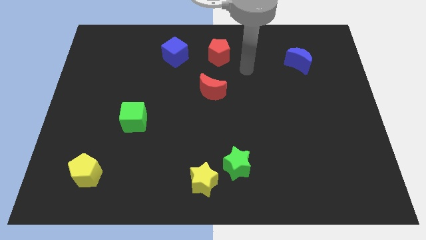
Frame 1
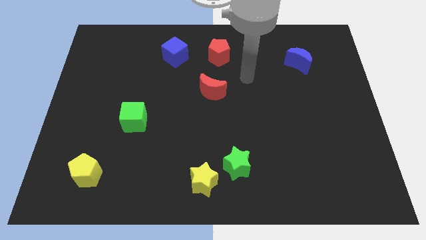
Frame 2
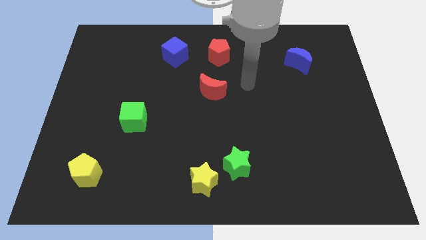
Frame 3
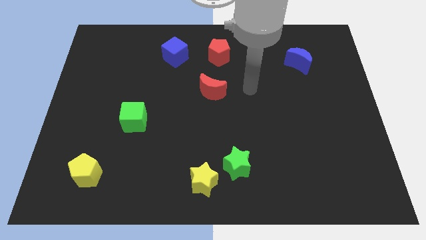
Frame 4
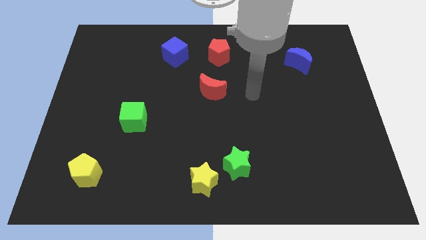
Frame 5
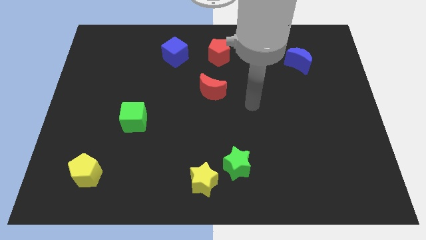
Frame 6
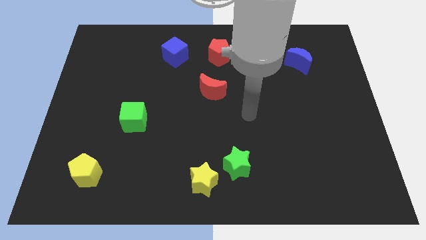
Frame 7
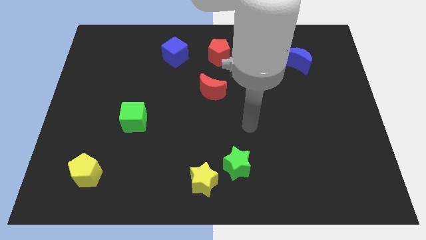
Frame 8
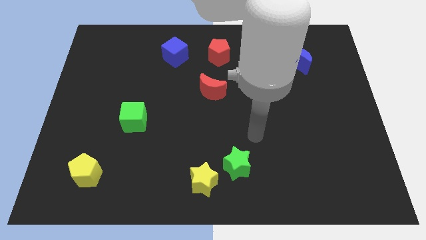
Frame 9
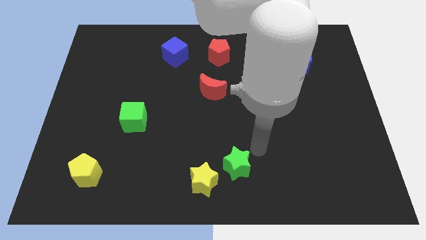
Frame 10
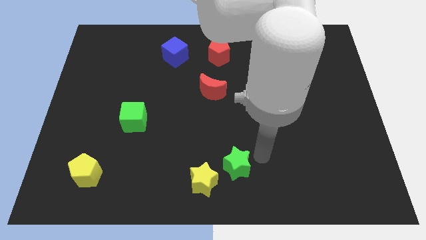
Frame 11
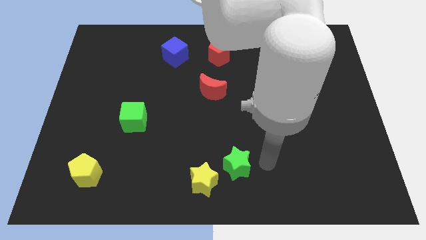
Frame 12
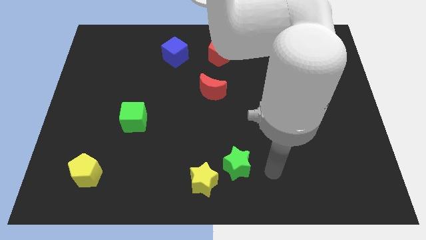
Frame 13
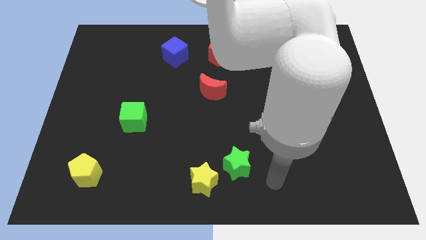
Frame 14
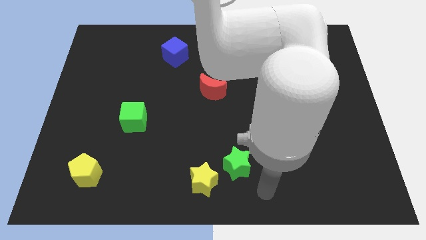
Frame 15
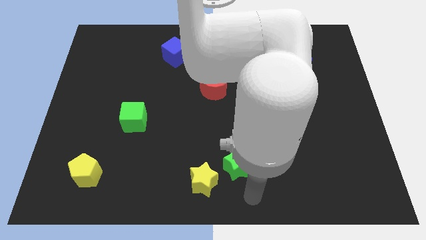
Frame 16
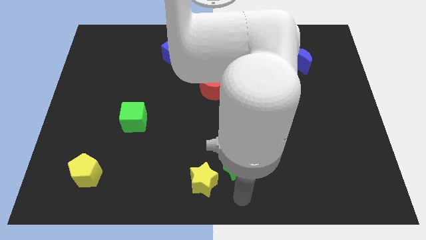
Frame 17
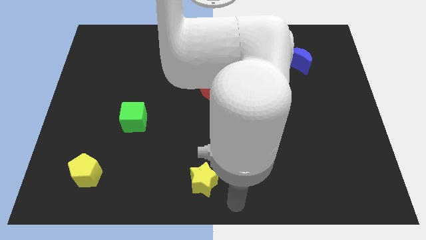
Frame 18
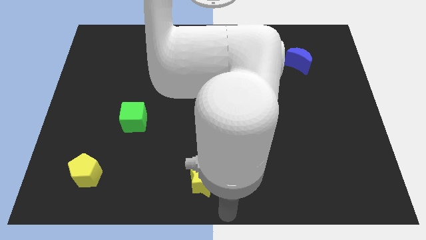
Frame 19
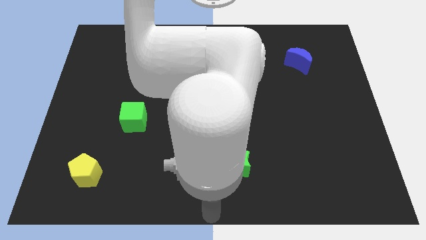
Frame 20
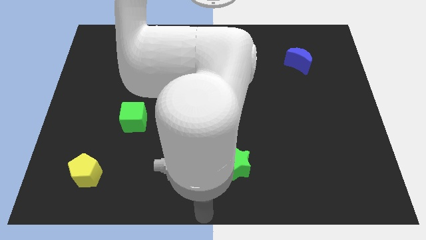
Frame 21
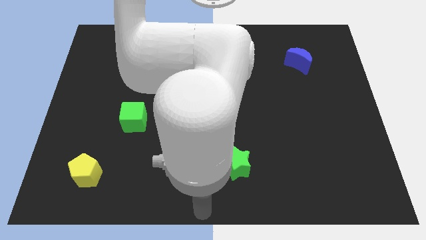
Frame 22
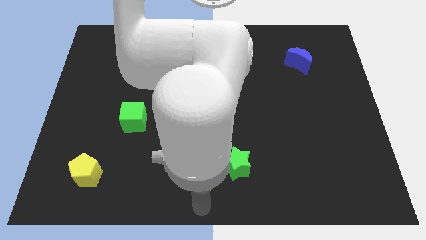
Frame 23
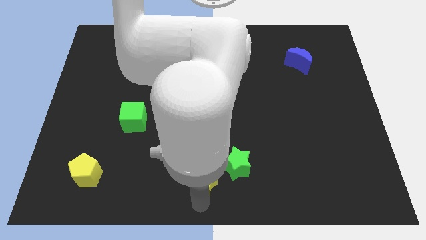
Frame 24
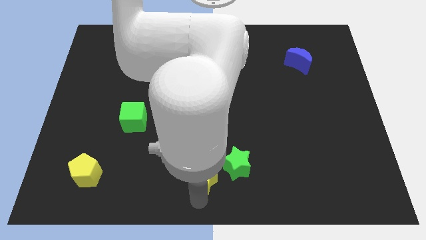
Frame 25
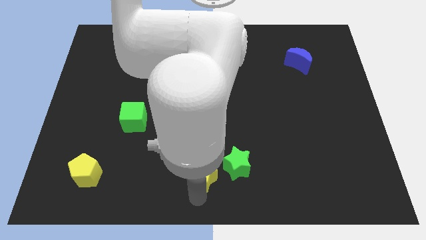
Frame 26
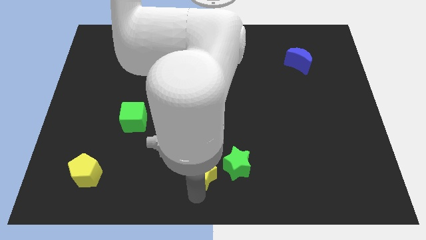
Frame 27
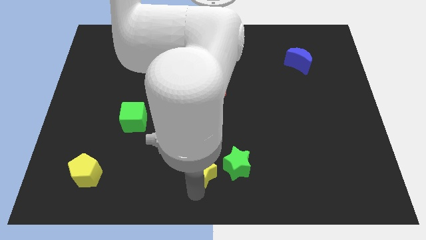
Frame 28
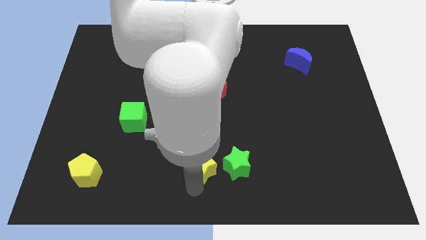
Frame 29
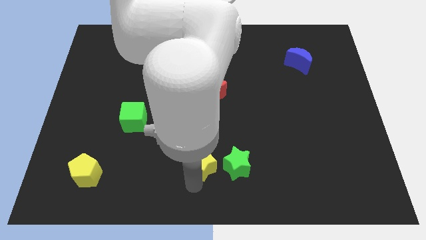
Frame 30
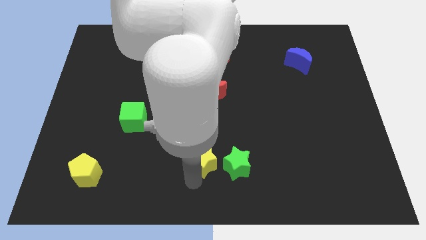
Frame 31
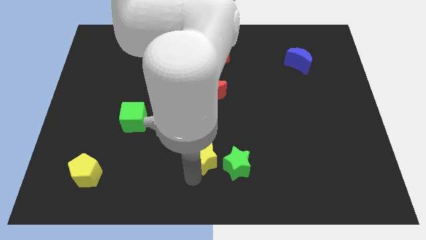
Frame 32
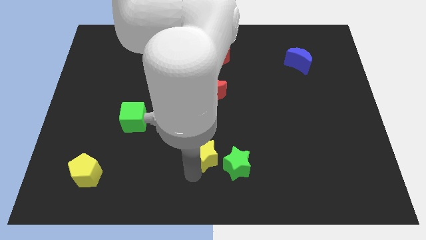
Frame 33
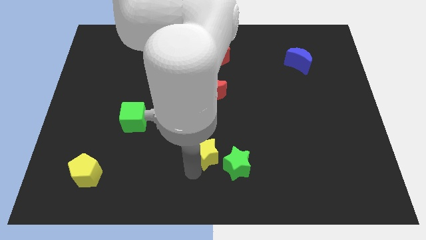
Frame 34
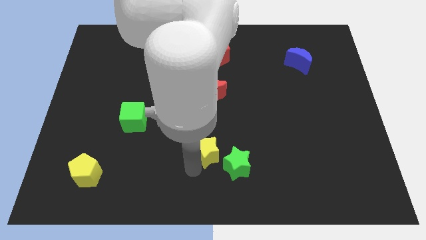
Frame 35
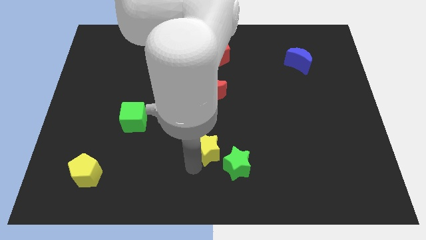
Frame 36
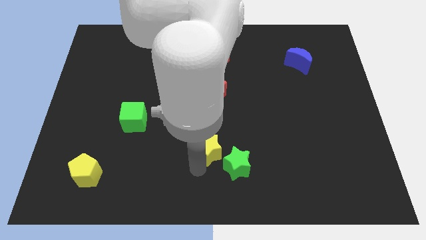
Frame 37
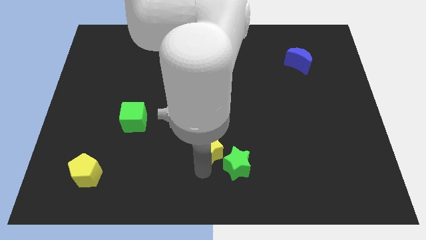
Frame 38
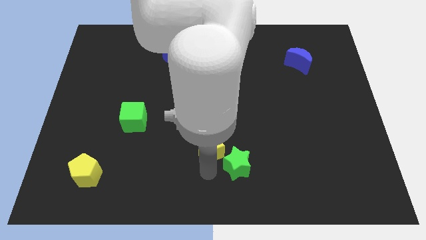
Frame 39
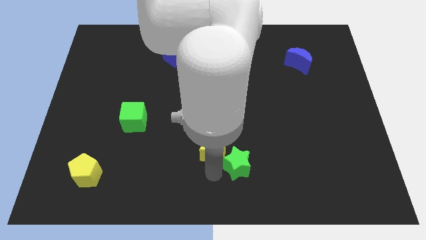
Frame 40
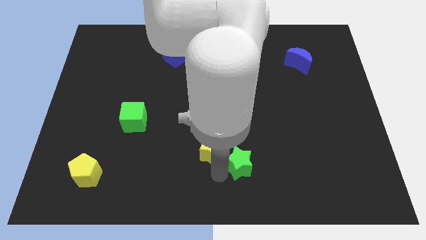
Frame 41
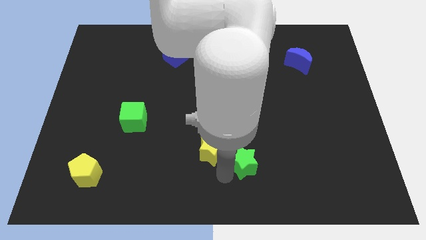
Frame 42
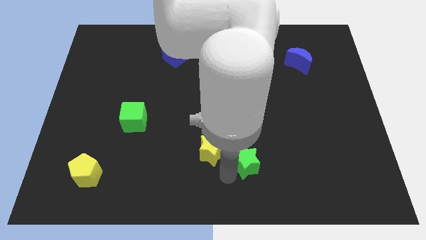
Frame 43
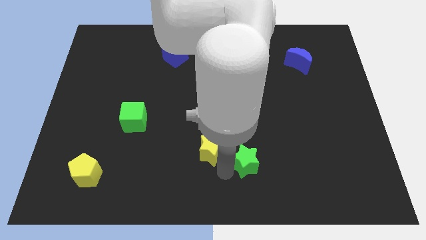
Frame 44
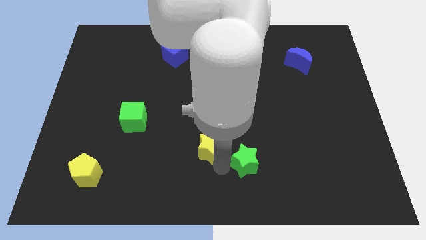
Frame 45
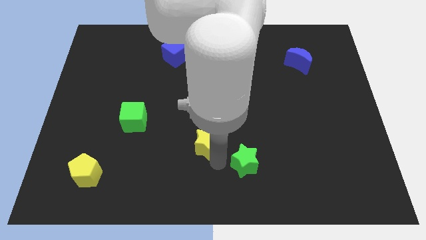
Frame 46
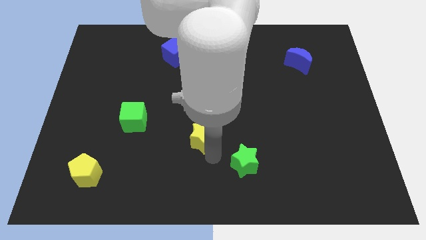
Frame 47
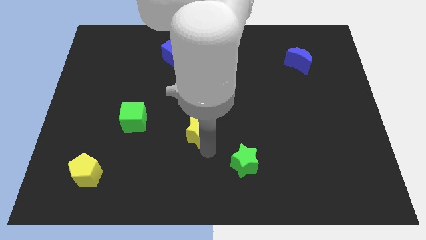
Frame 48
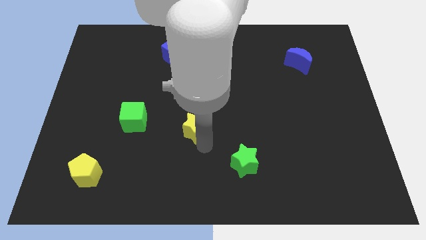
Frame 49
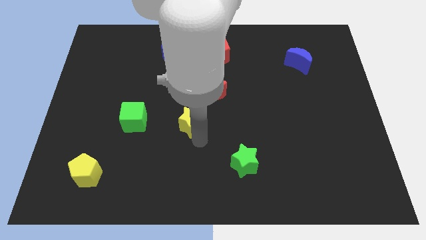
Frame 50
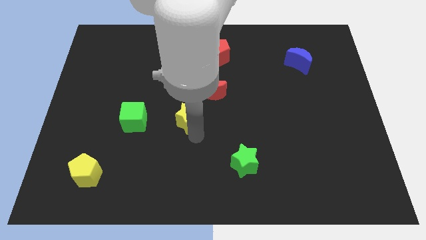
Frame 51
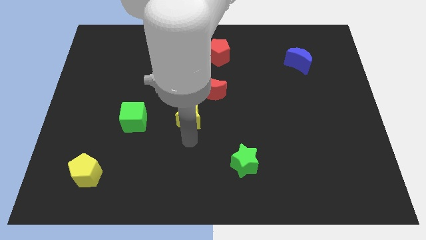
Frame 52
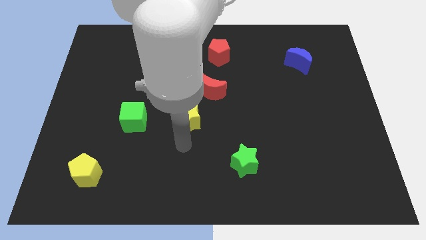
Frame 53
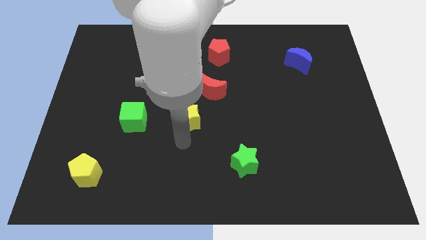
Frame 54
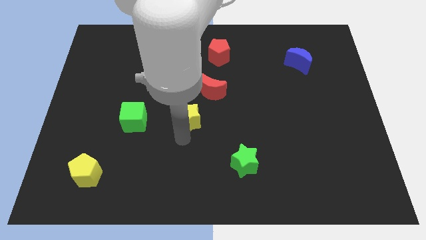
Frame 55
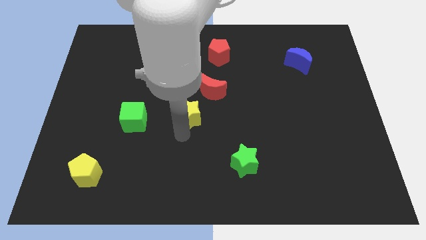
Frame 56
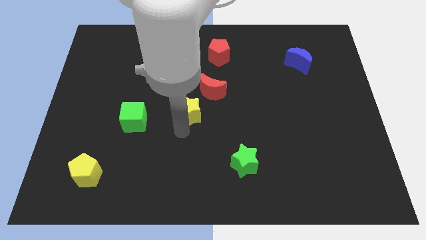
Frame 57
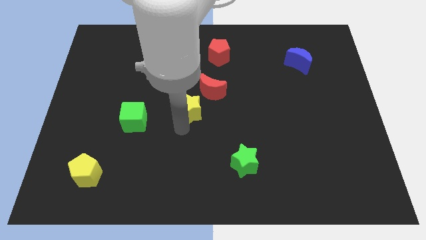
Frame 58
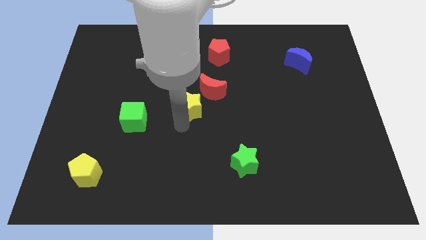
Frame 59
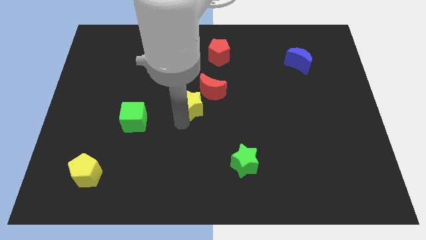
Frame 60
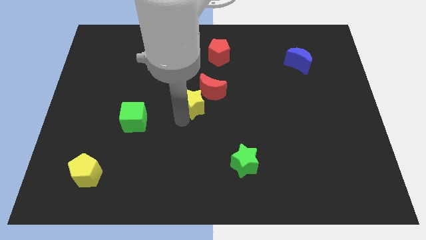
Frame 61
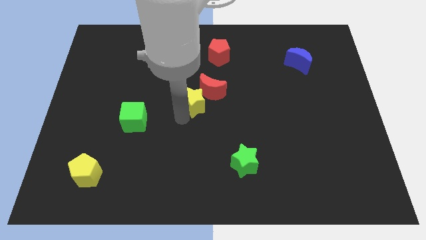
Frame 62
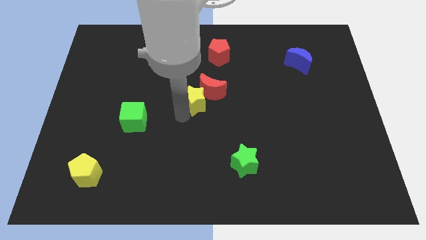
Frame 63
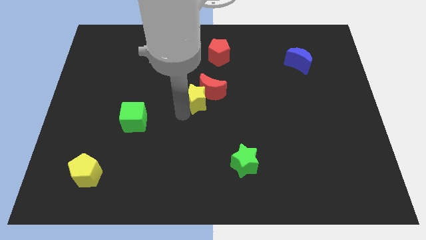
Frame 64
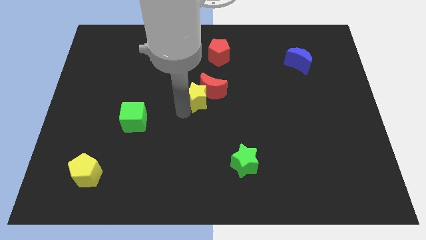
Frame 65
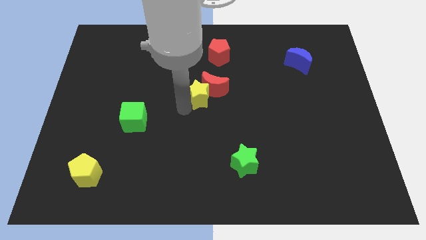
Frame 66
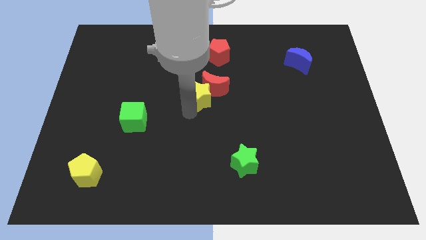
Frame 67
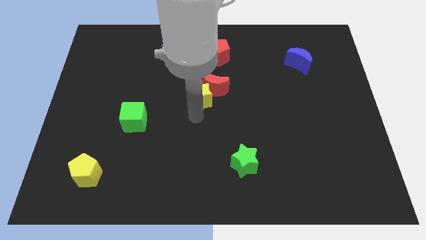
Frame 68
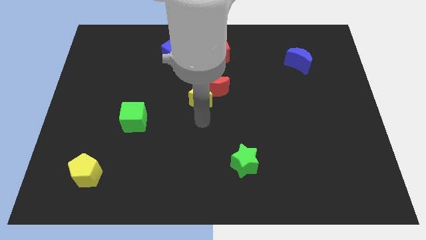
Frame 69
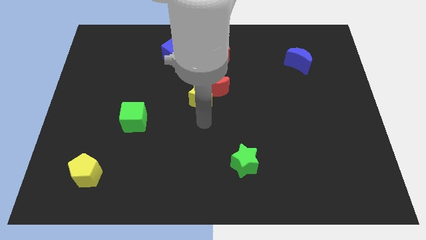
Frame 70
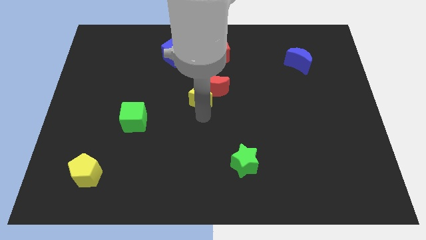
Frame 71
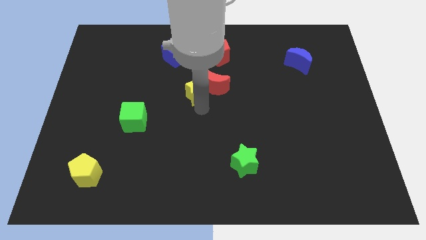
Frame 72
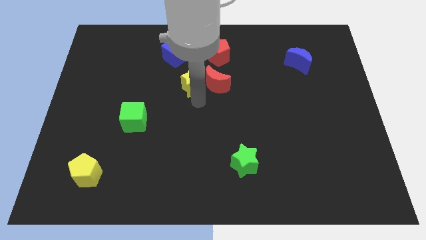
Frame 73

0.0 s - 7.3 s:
put the yellow star to the bottom right side of the blue cube

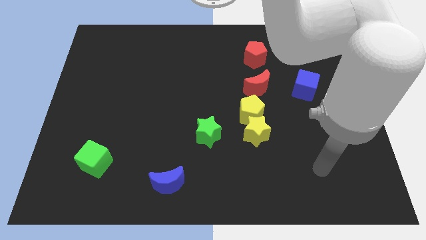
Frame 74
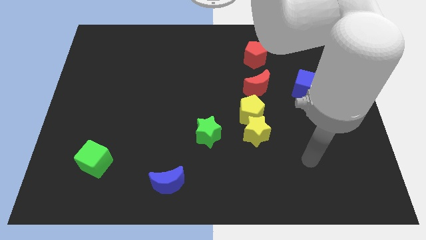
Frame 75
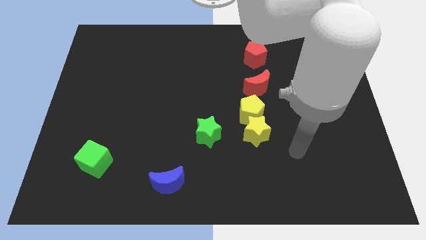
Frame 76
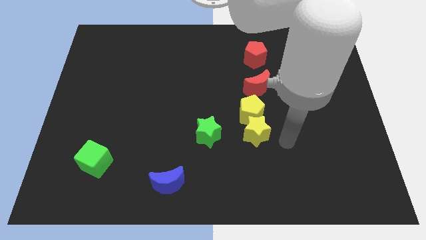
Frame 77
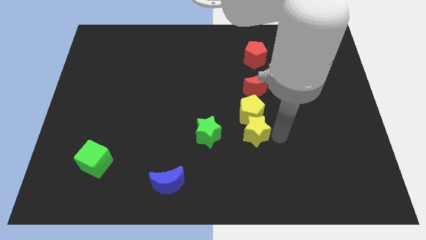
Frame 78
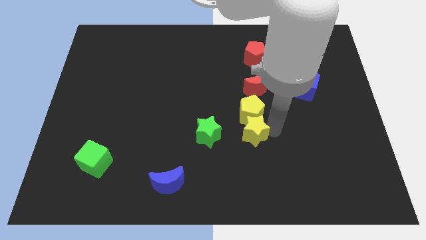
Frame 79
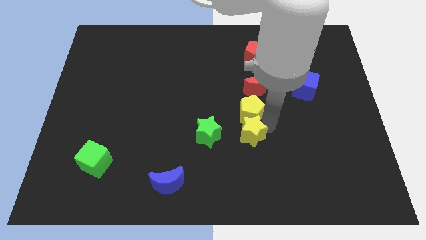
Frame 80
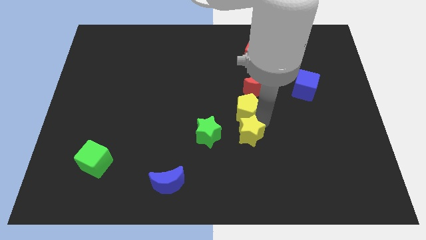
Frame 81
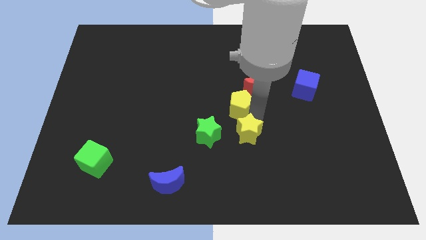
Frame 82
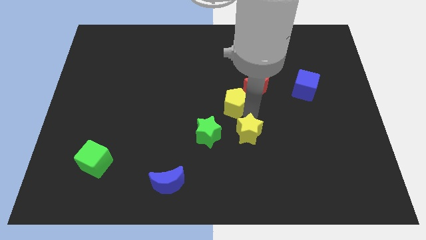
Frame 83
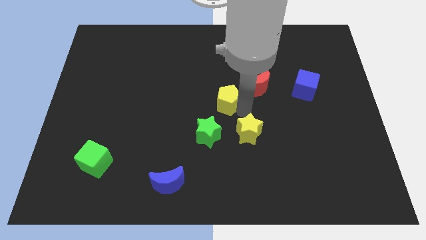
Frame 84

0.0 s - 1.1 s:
put the yellow pentagon to the left of the red moon
